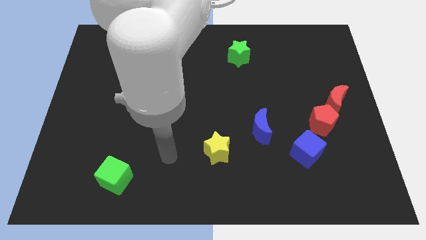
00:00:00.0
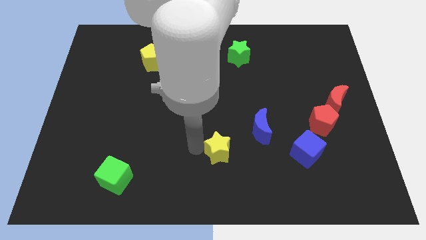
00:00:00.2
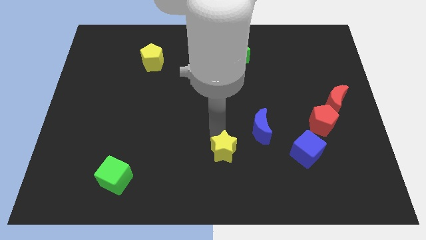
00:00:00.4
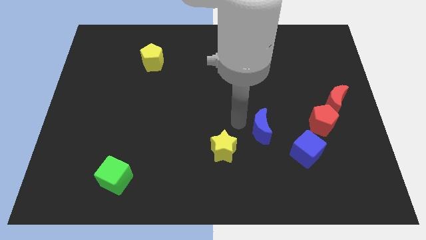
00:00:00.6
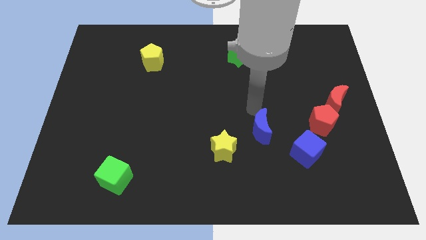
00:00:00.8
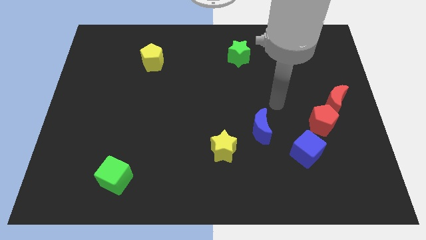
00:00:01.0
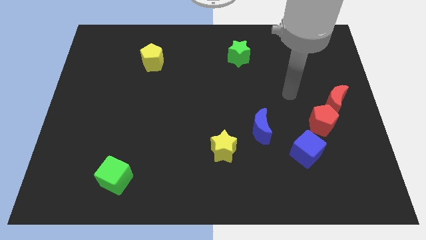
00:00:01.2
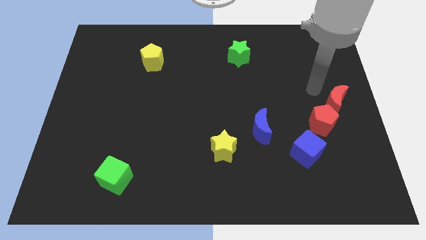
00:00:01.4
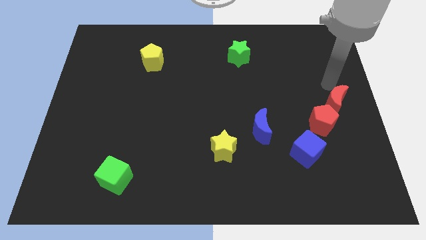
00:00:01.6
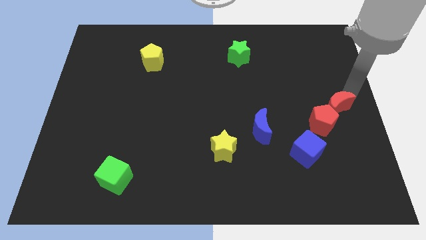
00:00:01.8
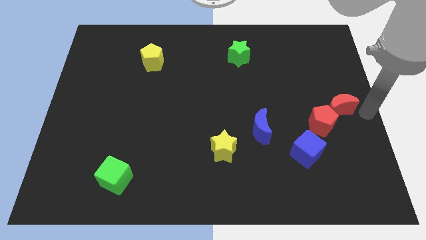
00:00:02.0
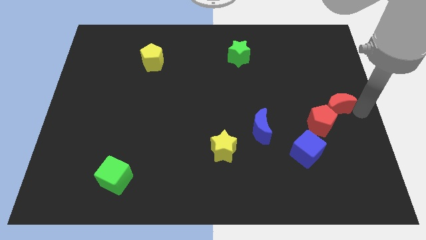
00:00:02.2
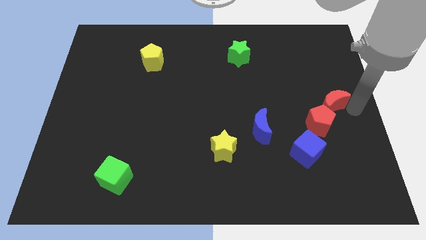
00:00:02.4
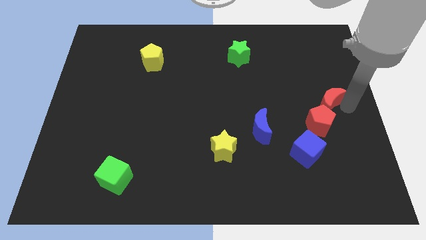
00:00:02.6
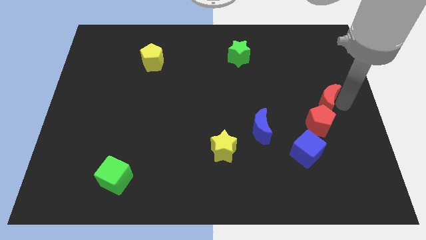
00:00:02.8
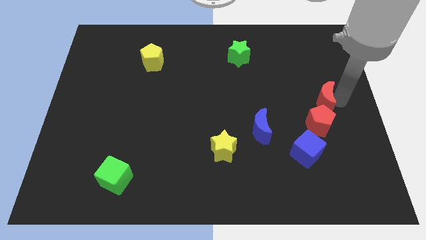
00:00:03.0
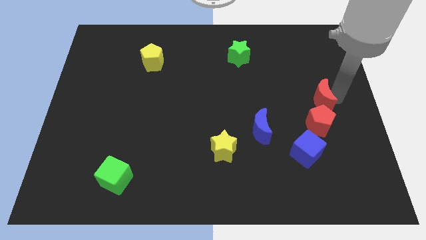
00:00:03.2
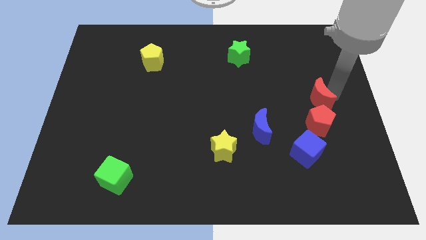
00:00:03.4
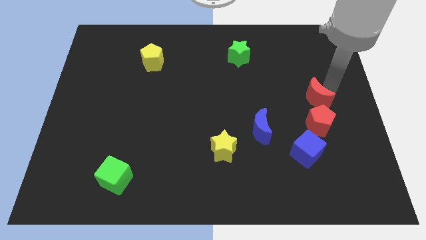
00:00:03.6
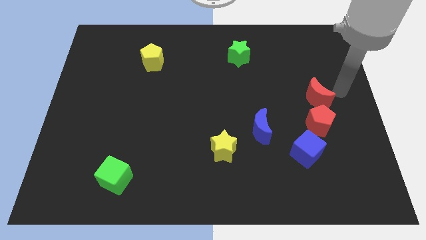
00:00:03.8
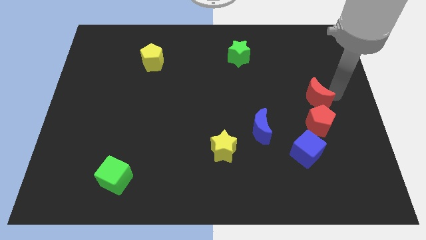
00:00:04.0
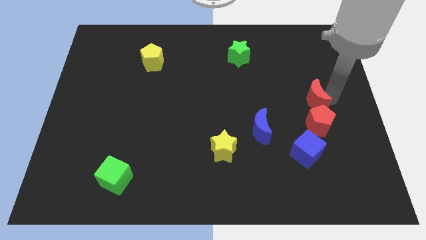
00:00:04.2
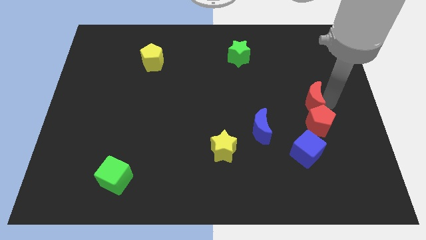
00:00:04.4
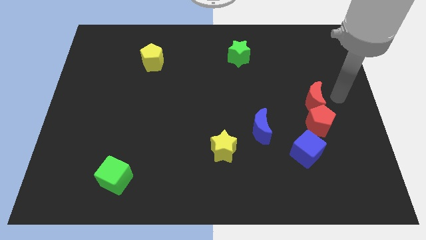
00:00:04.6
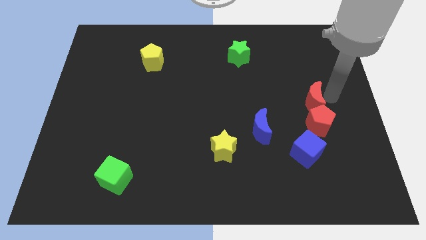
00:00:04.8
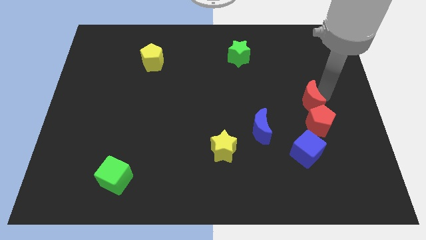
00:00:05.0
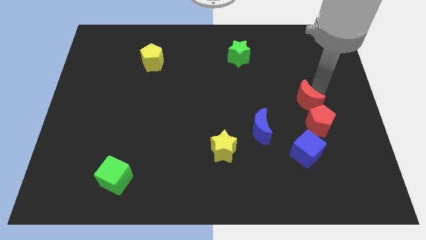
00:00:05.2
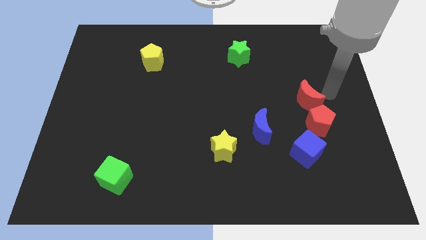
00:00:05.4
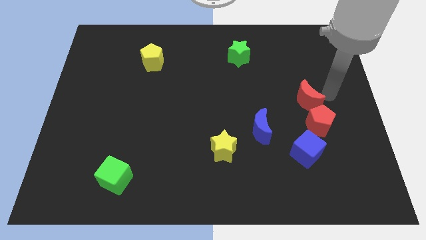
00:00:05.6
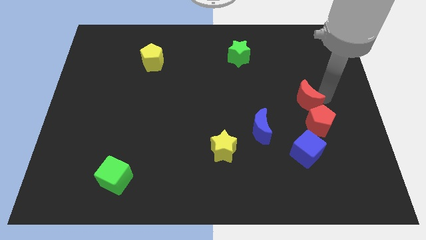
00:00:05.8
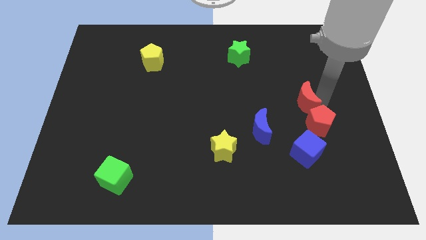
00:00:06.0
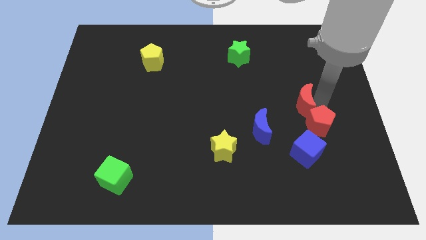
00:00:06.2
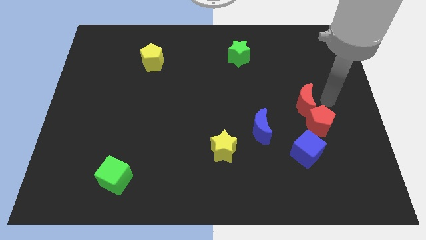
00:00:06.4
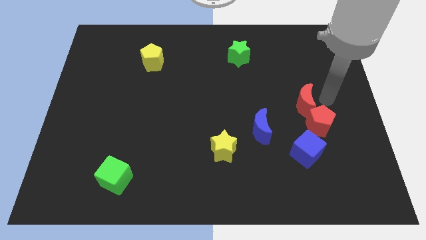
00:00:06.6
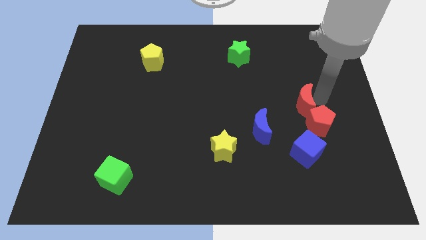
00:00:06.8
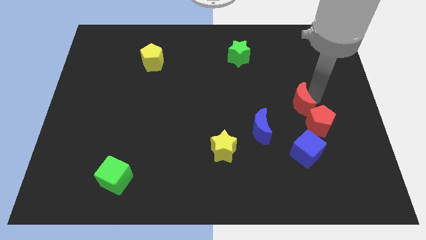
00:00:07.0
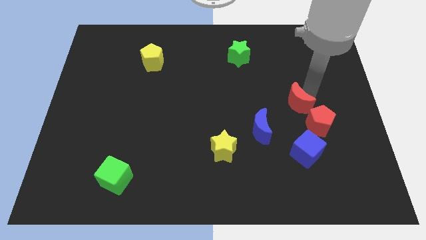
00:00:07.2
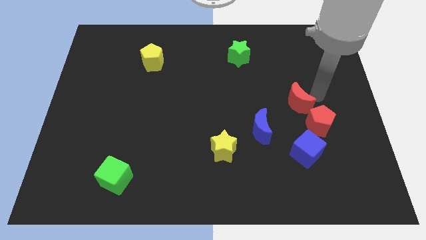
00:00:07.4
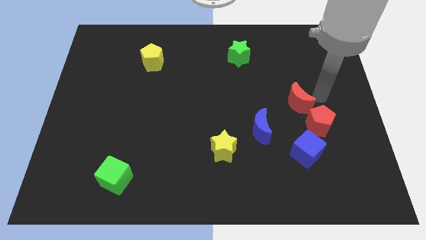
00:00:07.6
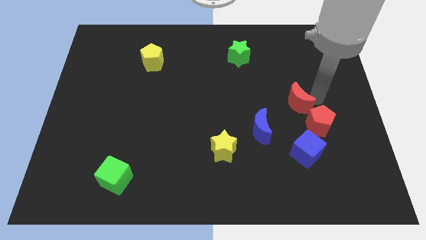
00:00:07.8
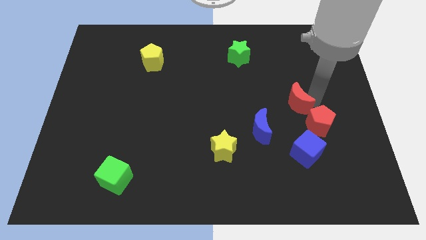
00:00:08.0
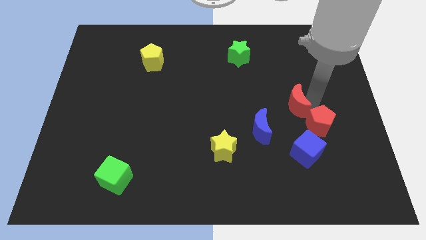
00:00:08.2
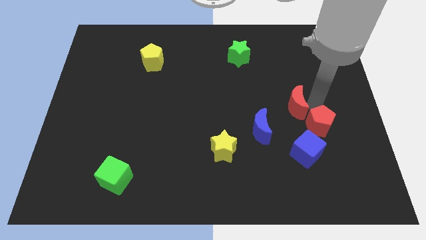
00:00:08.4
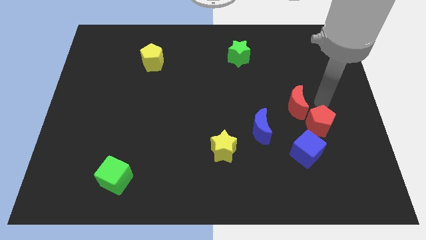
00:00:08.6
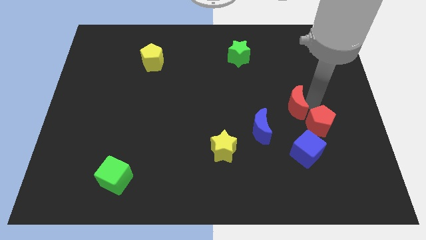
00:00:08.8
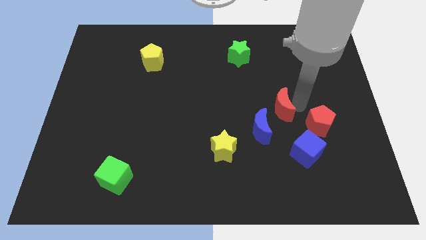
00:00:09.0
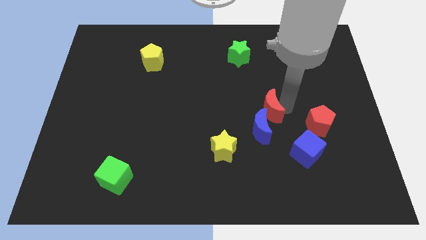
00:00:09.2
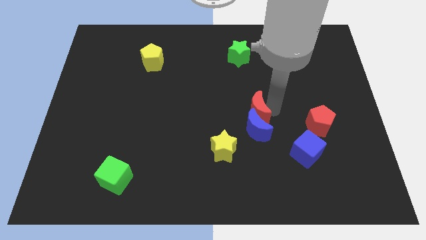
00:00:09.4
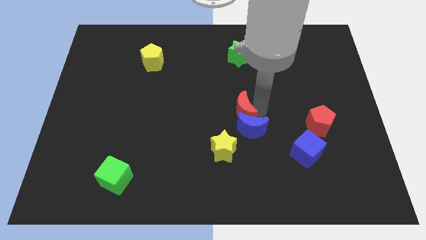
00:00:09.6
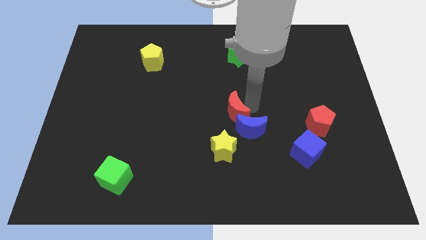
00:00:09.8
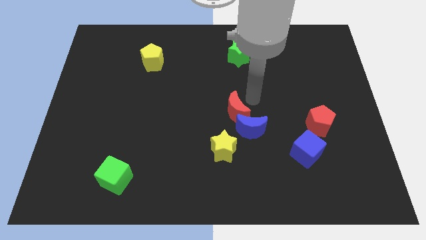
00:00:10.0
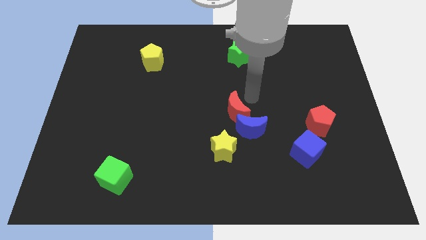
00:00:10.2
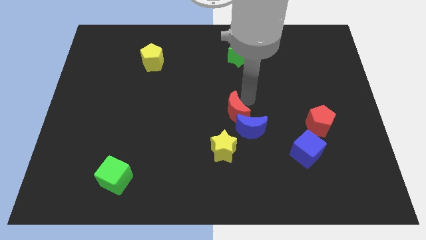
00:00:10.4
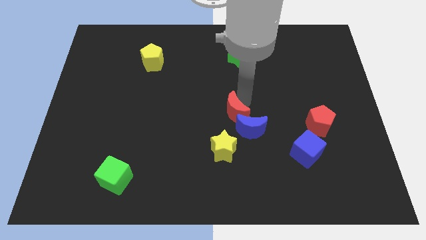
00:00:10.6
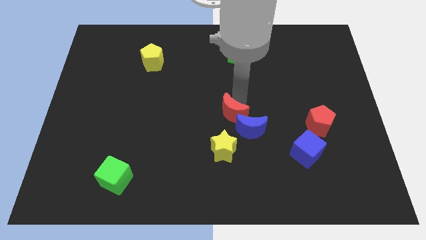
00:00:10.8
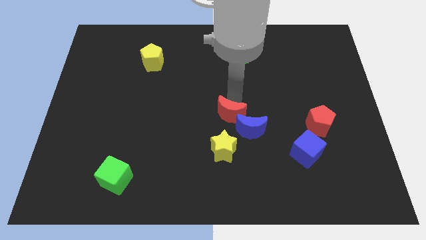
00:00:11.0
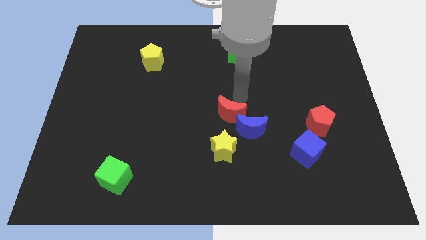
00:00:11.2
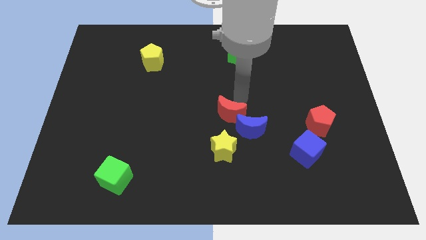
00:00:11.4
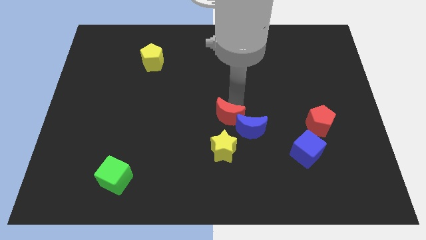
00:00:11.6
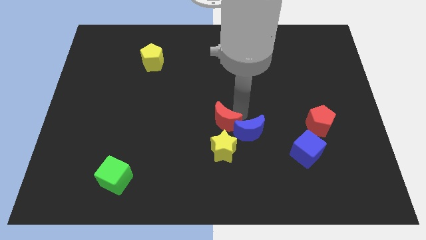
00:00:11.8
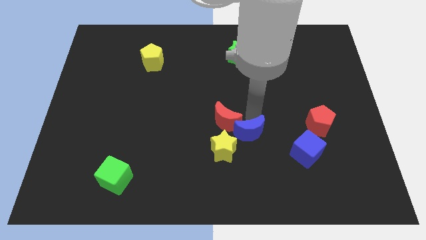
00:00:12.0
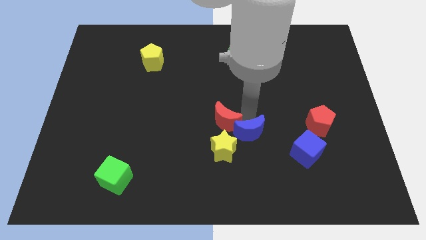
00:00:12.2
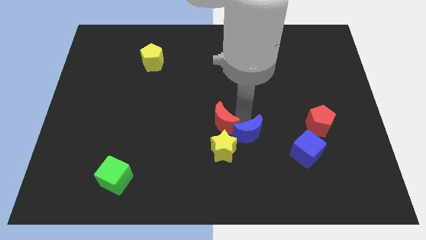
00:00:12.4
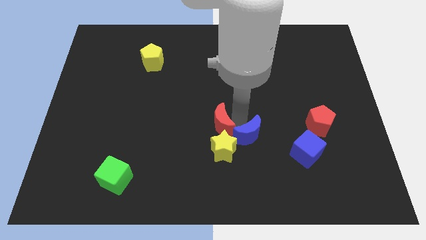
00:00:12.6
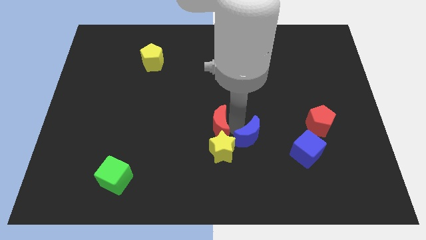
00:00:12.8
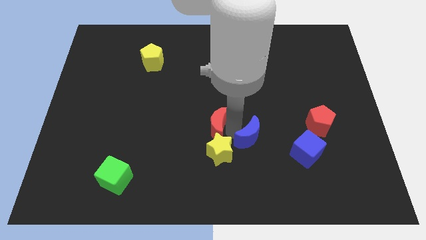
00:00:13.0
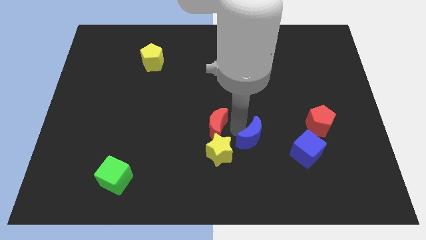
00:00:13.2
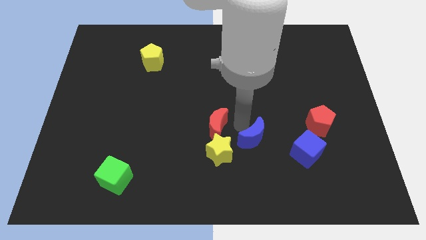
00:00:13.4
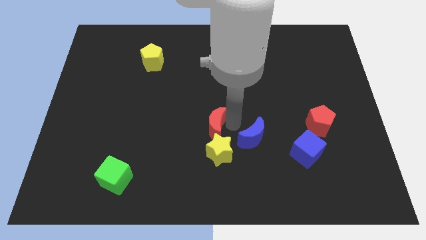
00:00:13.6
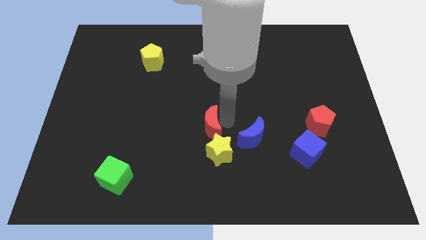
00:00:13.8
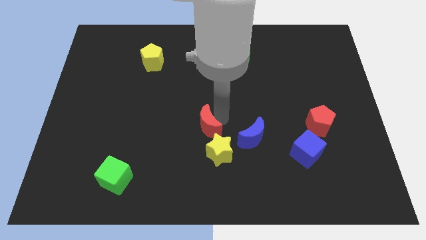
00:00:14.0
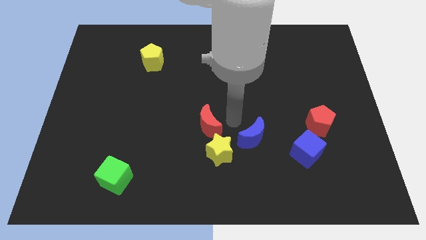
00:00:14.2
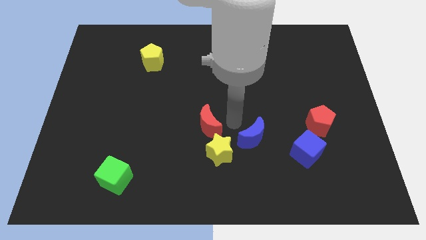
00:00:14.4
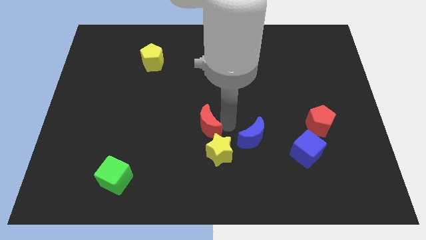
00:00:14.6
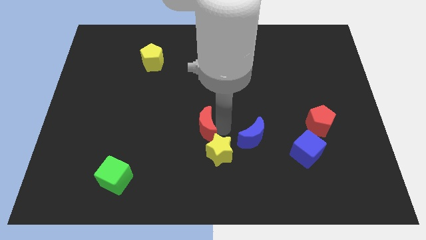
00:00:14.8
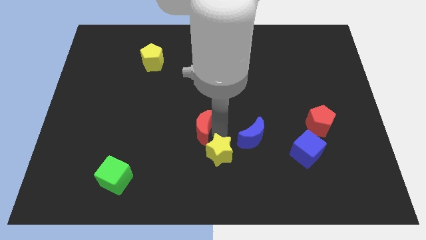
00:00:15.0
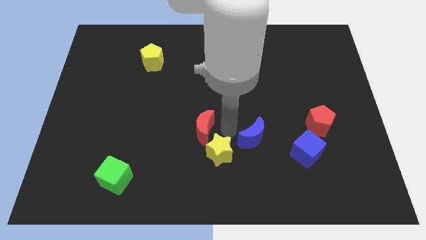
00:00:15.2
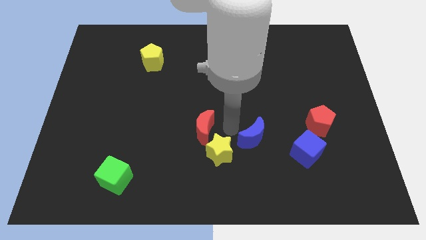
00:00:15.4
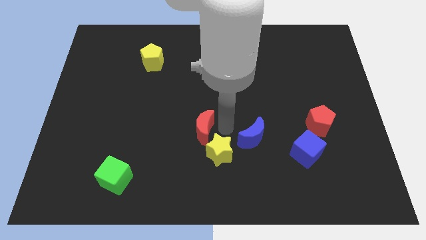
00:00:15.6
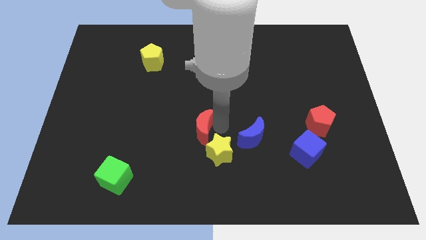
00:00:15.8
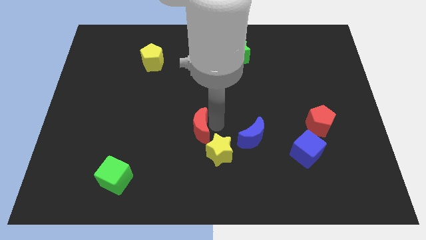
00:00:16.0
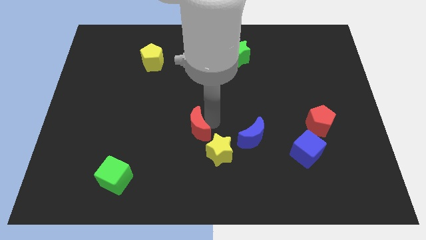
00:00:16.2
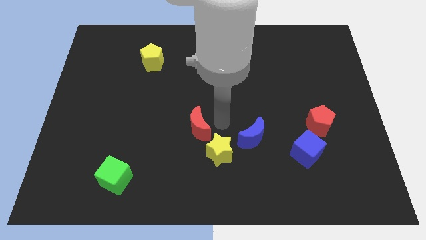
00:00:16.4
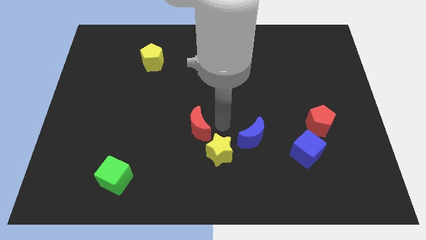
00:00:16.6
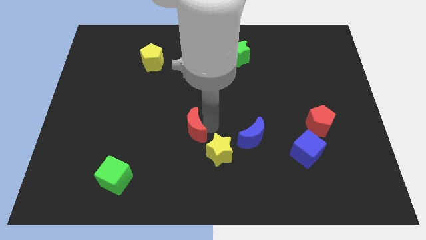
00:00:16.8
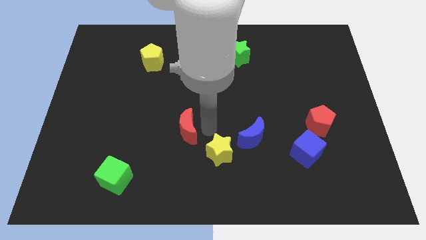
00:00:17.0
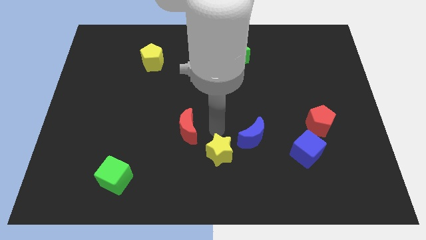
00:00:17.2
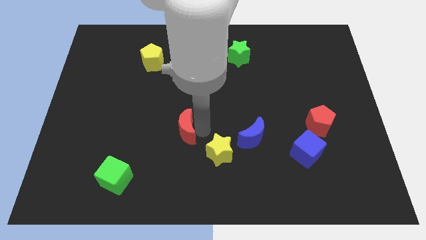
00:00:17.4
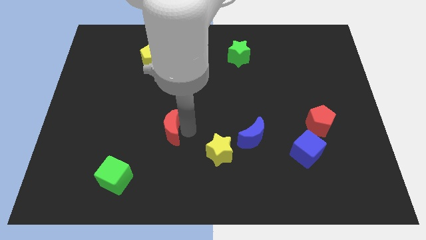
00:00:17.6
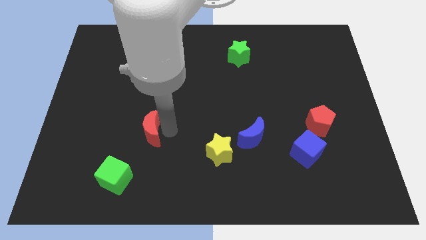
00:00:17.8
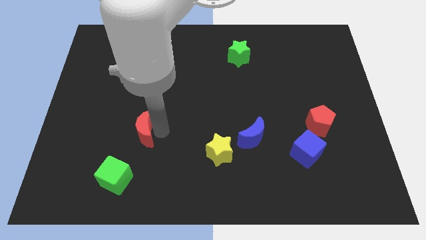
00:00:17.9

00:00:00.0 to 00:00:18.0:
slide the red moon to the top of the green cube
